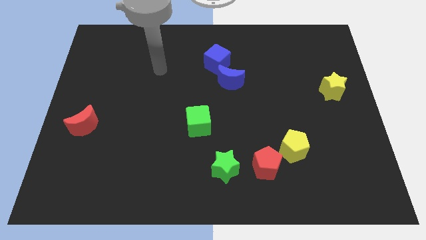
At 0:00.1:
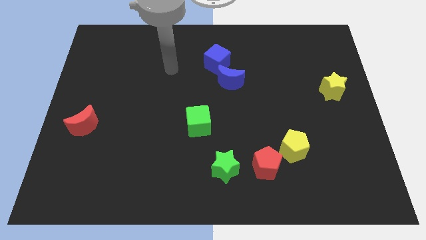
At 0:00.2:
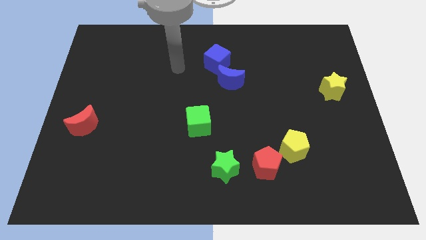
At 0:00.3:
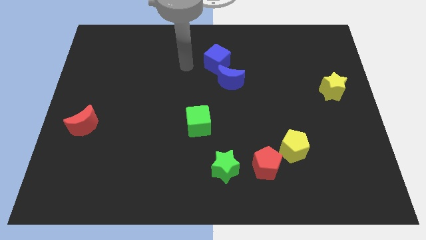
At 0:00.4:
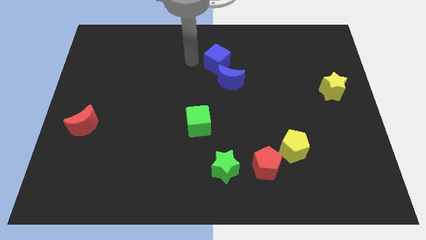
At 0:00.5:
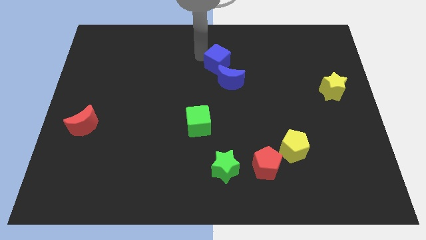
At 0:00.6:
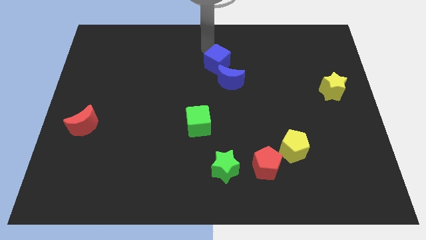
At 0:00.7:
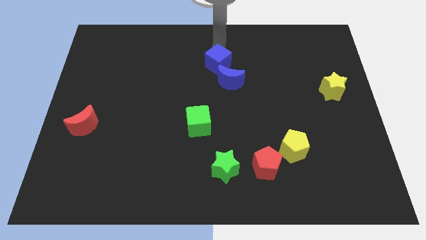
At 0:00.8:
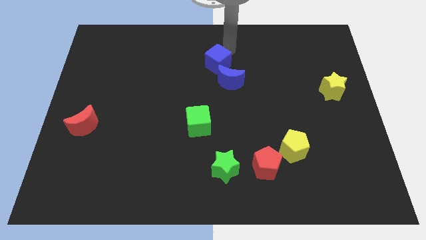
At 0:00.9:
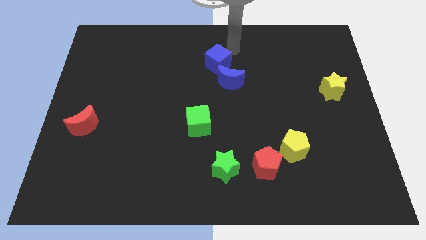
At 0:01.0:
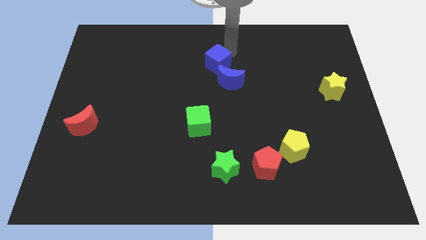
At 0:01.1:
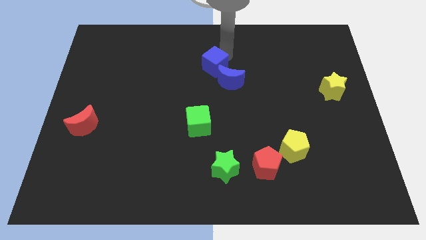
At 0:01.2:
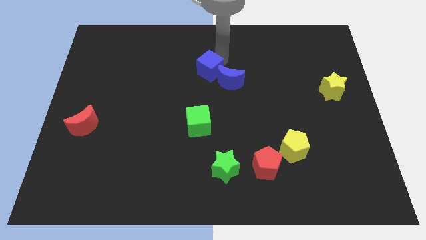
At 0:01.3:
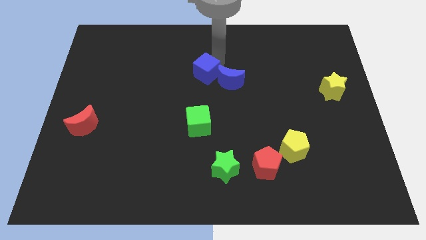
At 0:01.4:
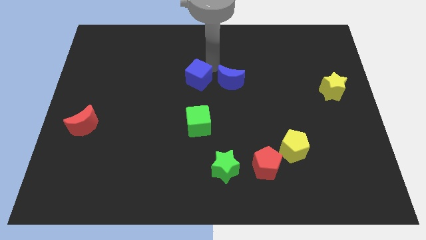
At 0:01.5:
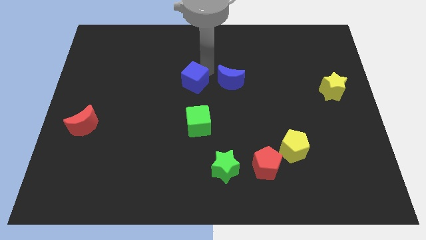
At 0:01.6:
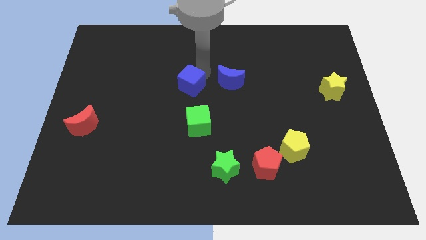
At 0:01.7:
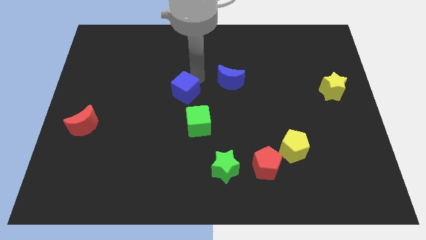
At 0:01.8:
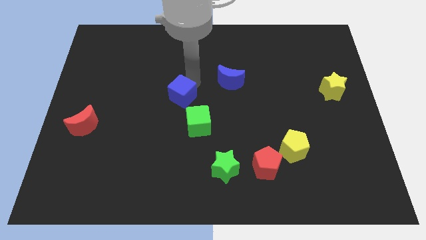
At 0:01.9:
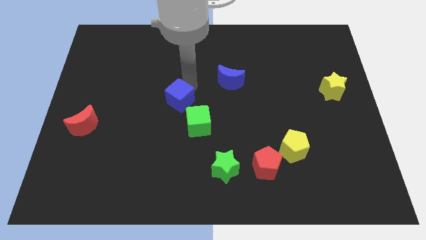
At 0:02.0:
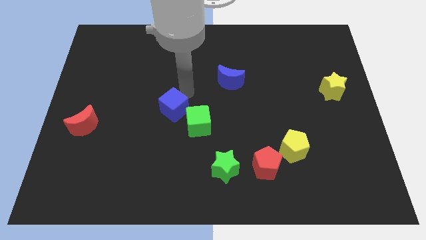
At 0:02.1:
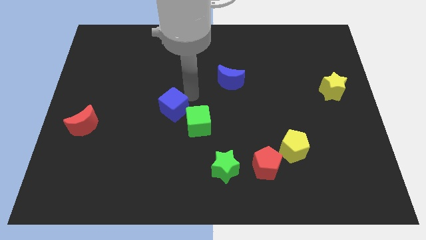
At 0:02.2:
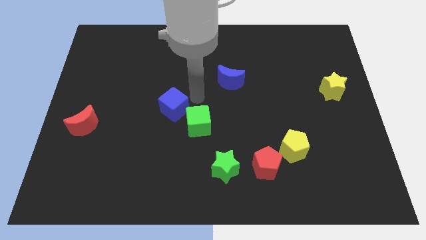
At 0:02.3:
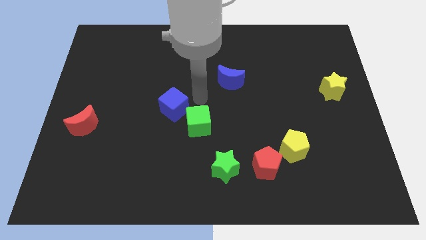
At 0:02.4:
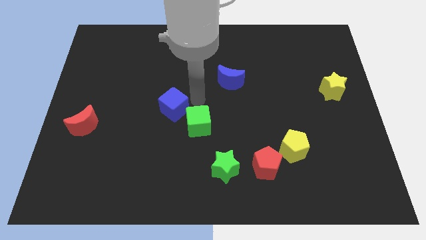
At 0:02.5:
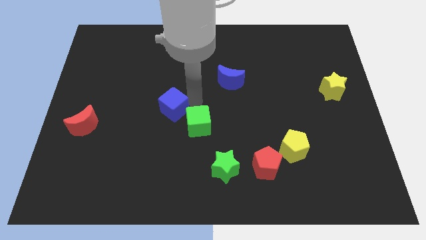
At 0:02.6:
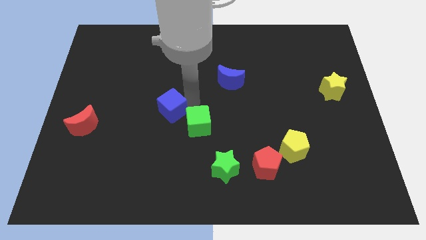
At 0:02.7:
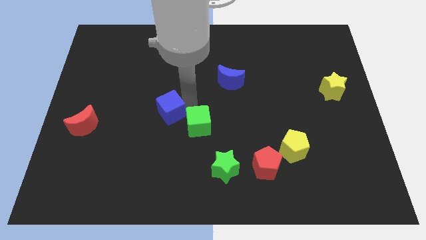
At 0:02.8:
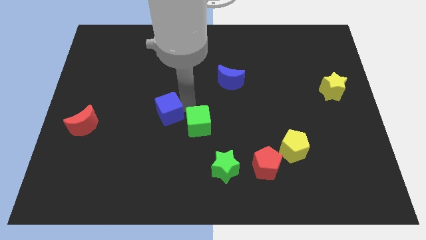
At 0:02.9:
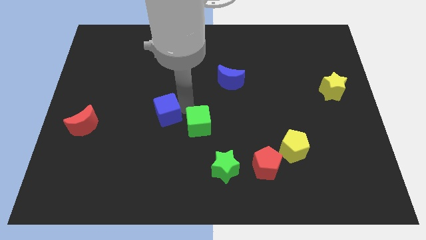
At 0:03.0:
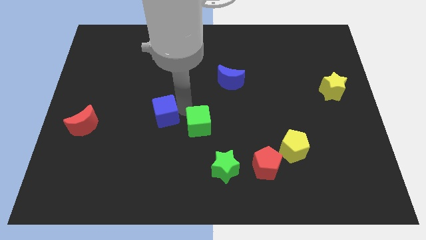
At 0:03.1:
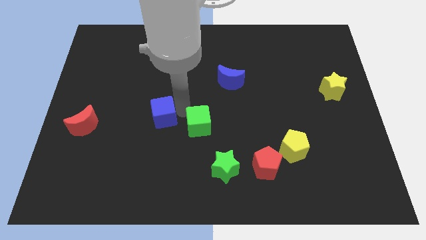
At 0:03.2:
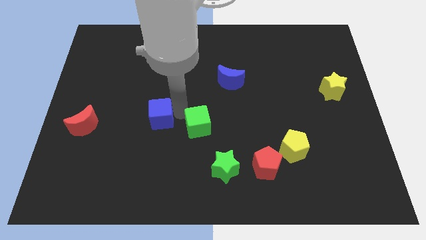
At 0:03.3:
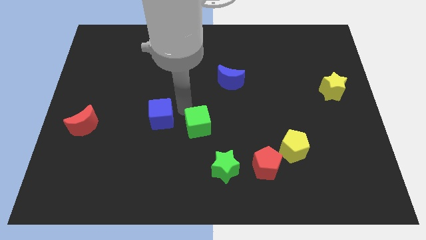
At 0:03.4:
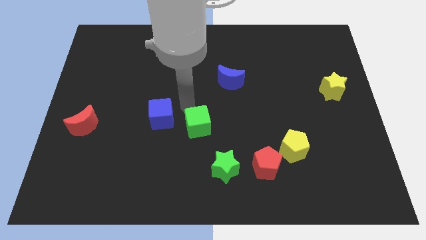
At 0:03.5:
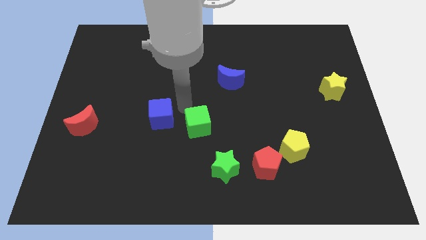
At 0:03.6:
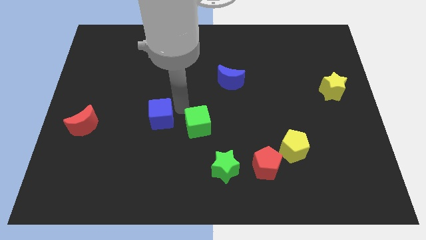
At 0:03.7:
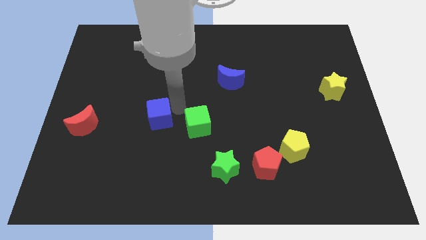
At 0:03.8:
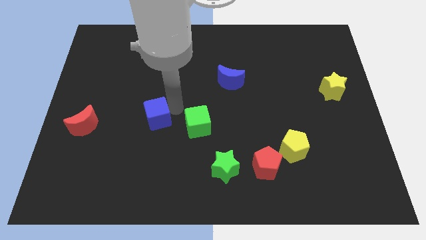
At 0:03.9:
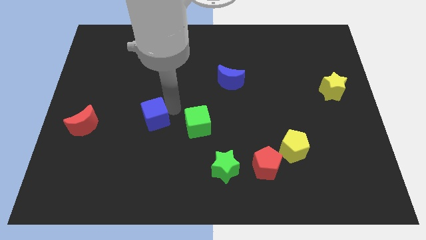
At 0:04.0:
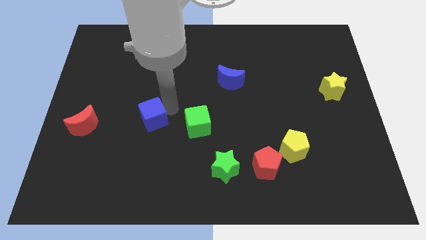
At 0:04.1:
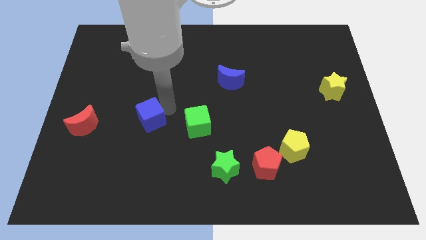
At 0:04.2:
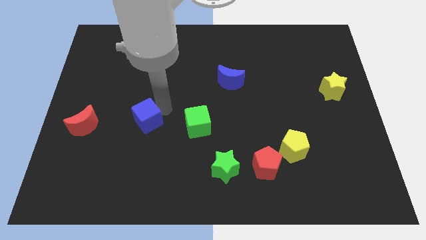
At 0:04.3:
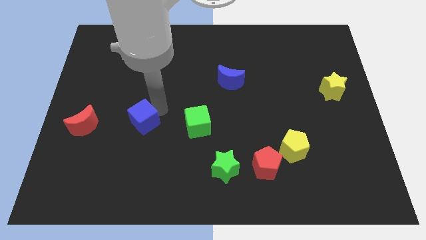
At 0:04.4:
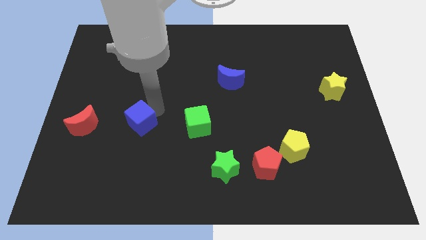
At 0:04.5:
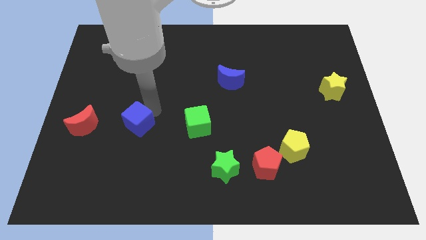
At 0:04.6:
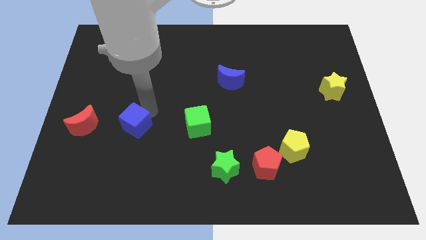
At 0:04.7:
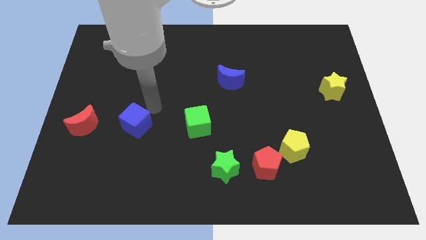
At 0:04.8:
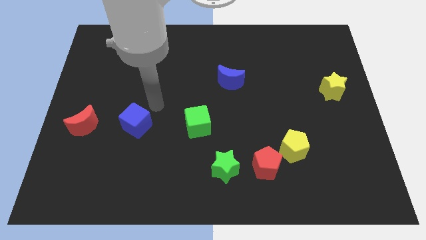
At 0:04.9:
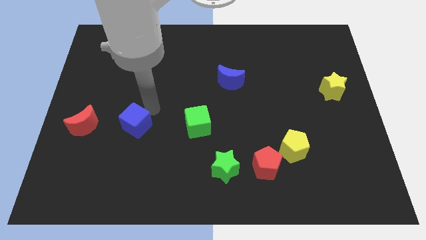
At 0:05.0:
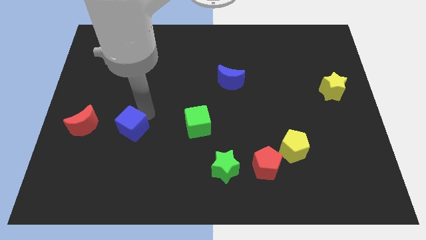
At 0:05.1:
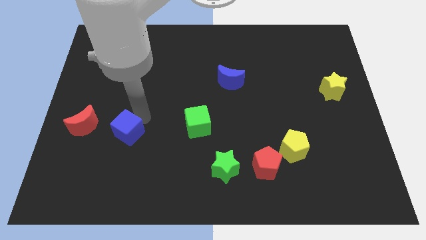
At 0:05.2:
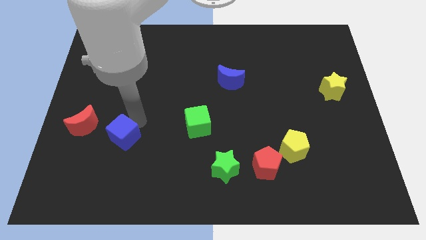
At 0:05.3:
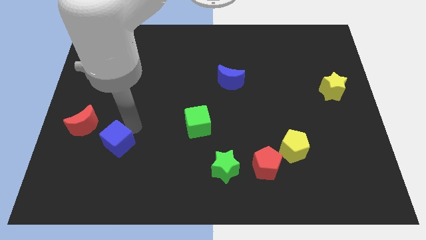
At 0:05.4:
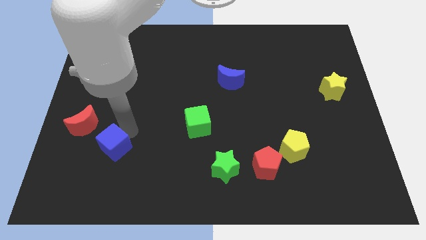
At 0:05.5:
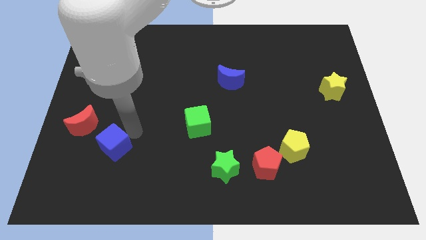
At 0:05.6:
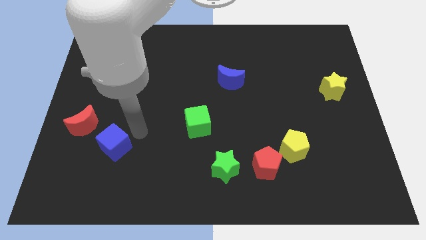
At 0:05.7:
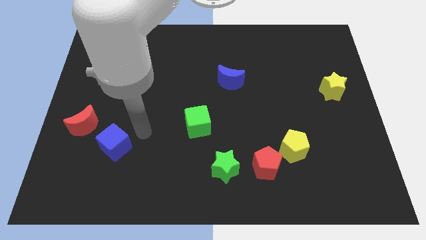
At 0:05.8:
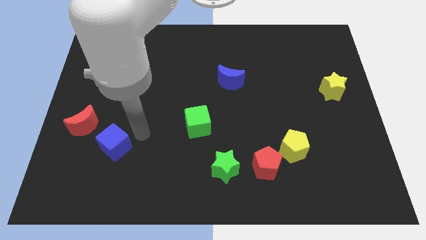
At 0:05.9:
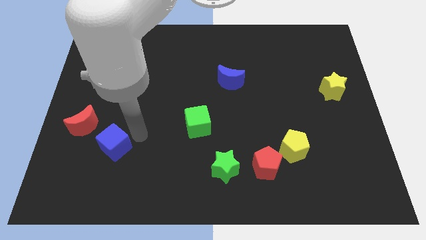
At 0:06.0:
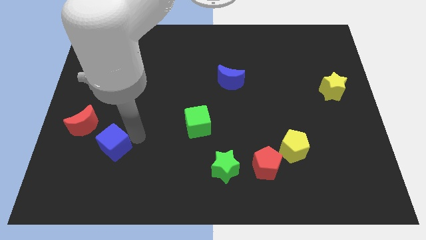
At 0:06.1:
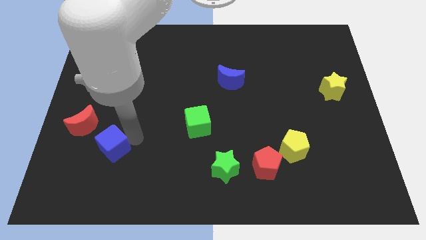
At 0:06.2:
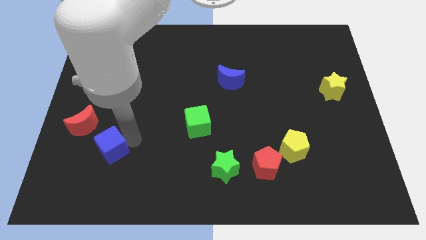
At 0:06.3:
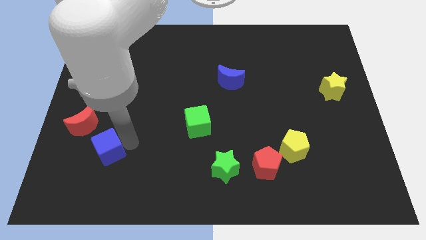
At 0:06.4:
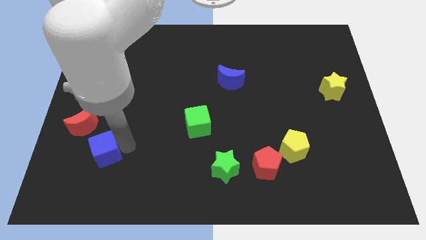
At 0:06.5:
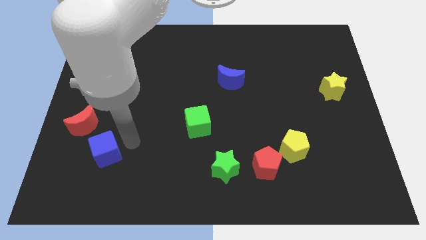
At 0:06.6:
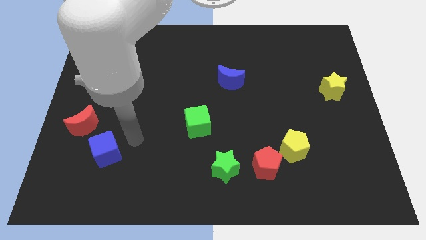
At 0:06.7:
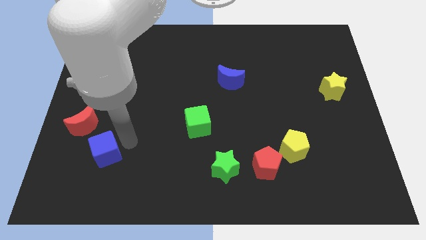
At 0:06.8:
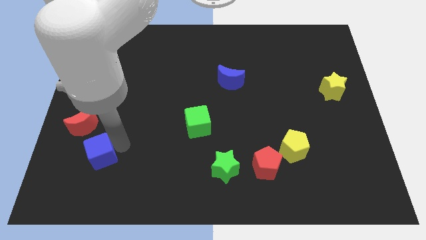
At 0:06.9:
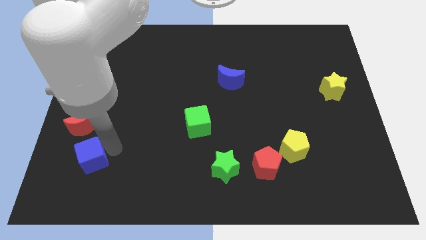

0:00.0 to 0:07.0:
slide the blue cube below the red moon
